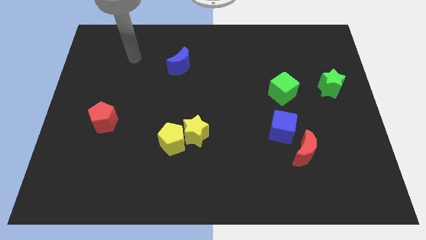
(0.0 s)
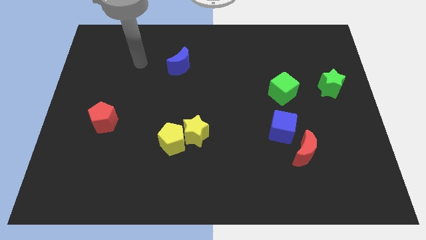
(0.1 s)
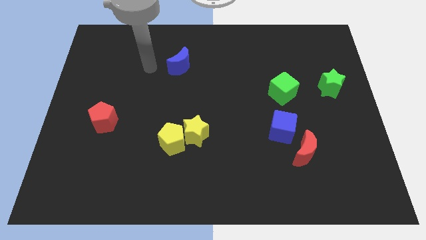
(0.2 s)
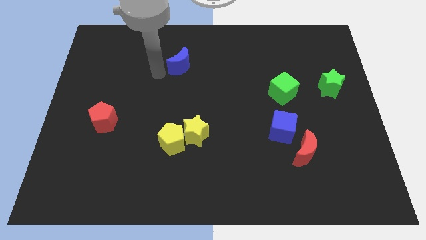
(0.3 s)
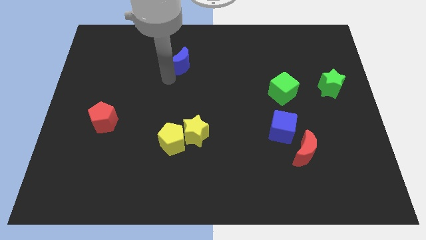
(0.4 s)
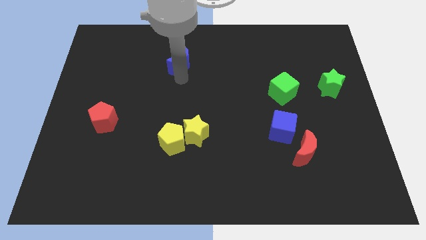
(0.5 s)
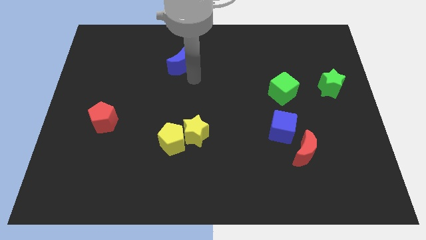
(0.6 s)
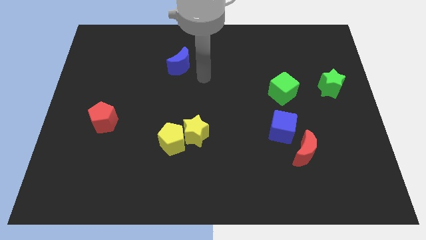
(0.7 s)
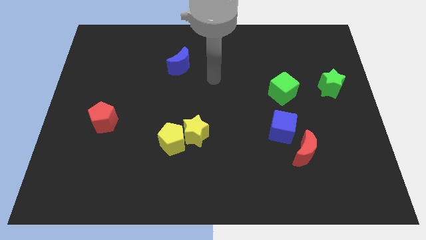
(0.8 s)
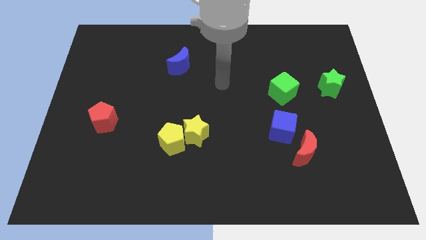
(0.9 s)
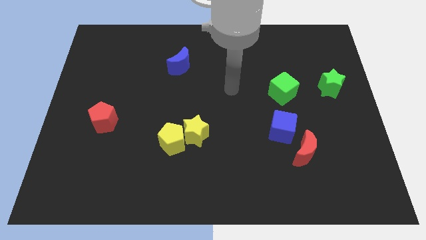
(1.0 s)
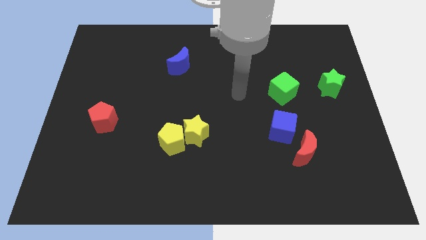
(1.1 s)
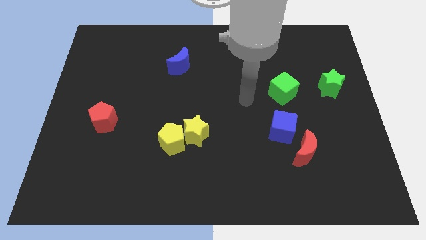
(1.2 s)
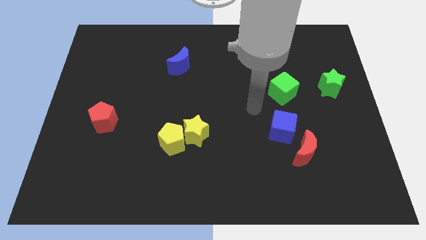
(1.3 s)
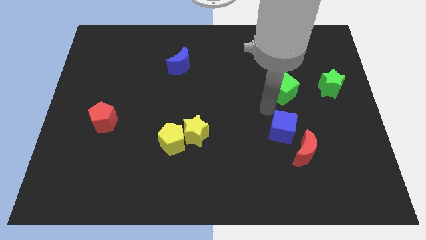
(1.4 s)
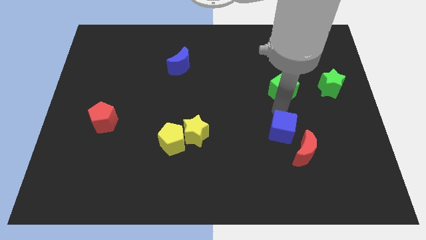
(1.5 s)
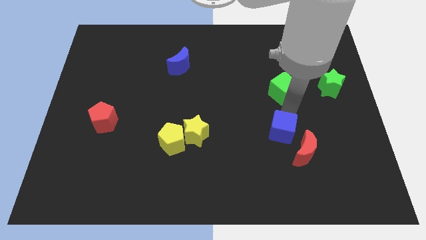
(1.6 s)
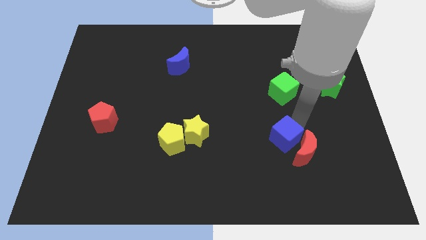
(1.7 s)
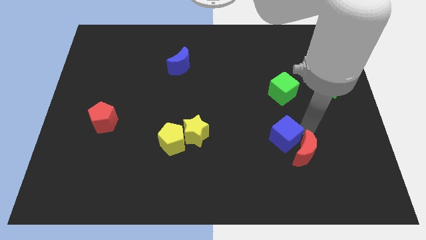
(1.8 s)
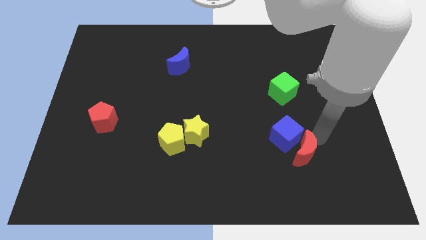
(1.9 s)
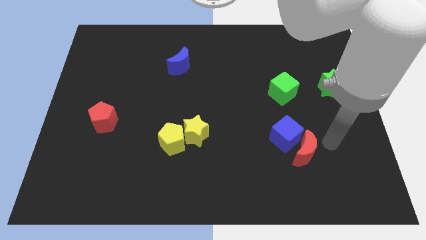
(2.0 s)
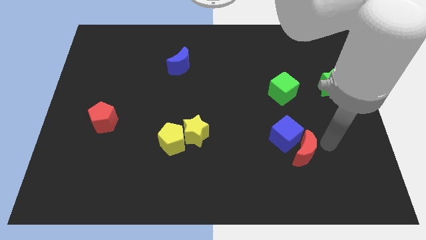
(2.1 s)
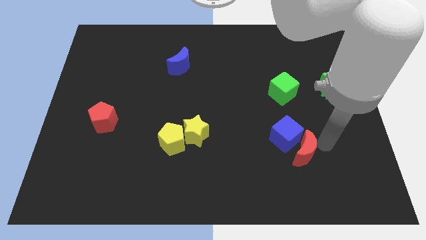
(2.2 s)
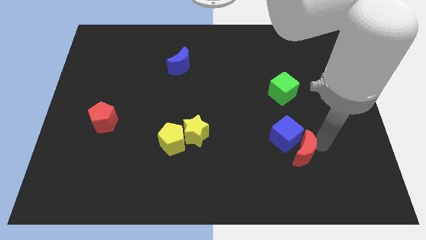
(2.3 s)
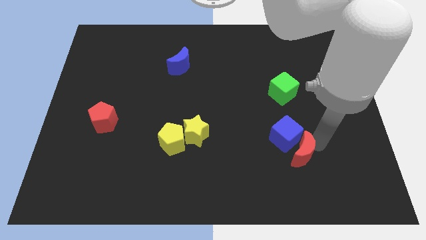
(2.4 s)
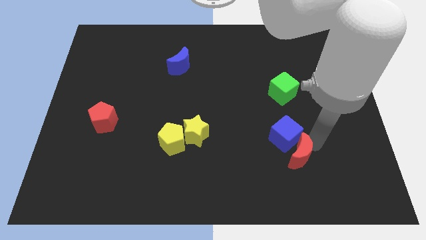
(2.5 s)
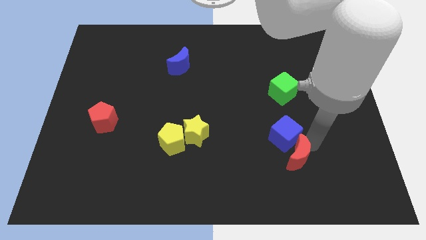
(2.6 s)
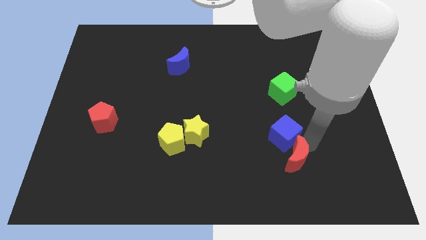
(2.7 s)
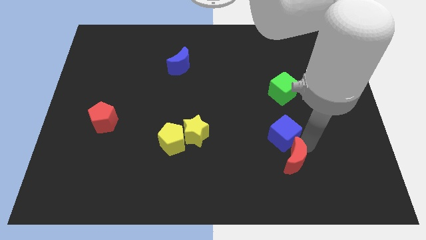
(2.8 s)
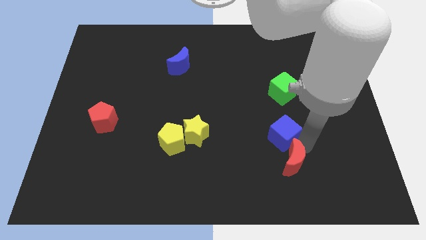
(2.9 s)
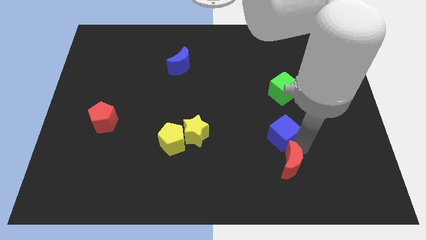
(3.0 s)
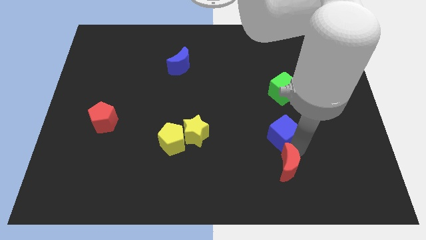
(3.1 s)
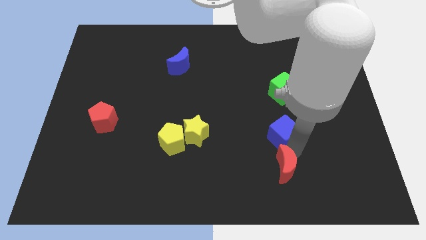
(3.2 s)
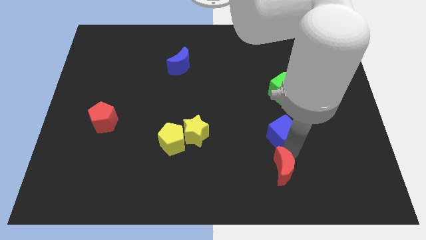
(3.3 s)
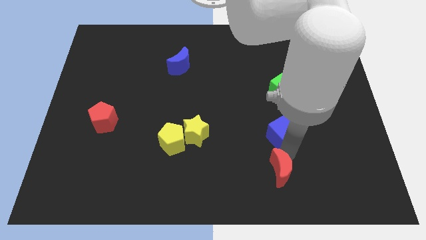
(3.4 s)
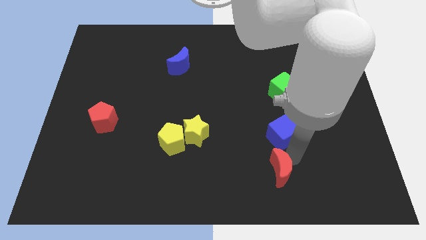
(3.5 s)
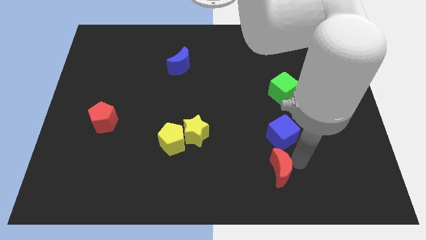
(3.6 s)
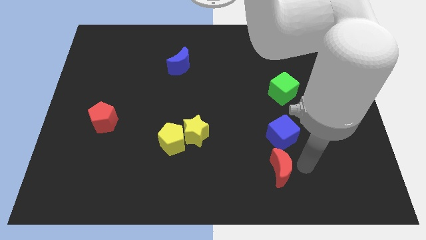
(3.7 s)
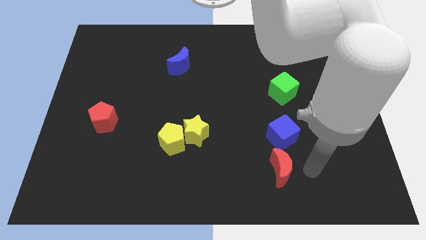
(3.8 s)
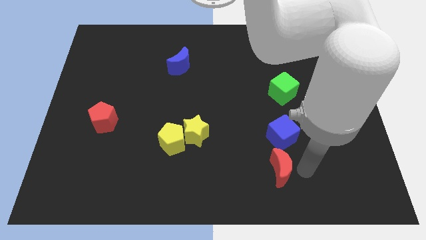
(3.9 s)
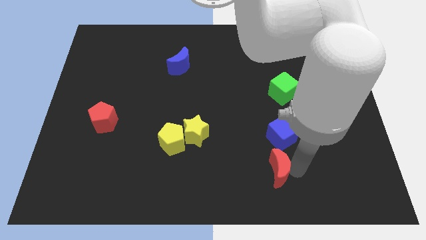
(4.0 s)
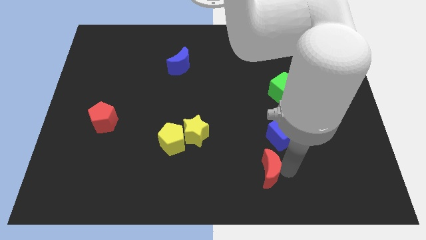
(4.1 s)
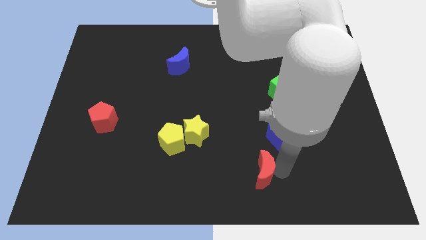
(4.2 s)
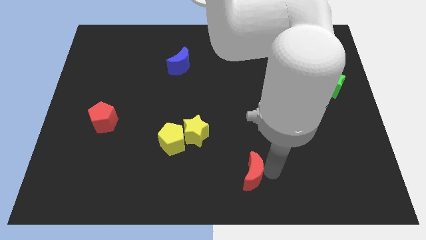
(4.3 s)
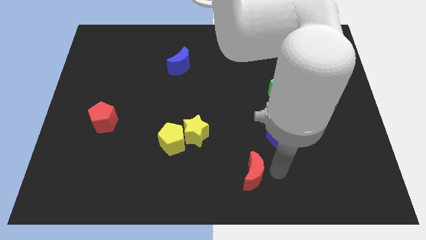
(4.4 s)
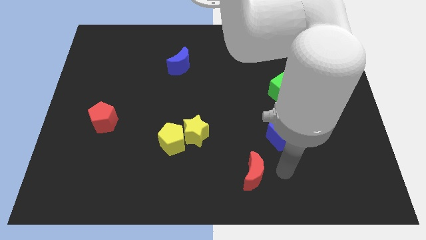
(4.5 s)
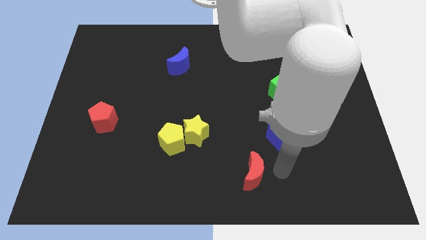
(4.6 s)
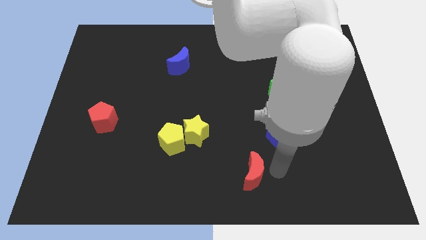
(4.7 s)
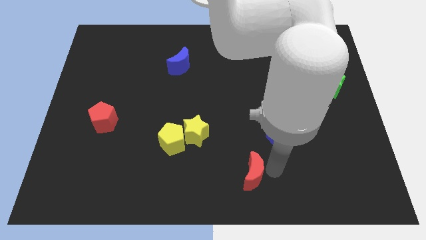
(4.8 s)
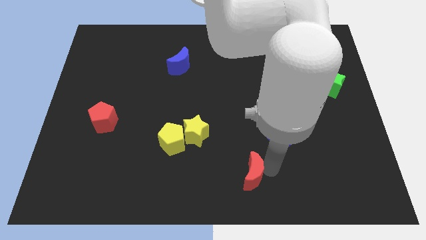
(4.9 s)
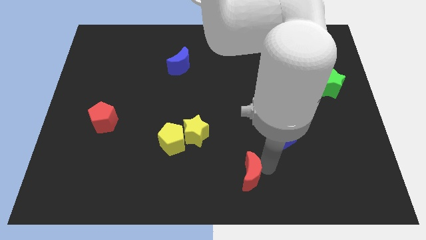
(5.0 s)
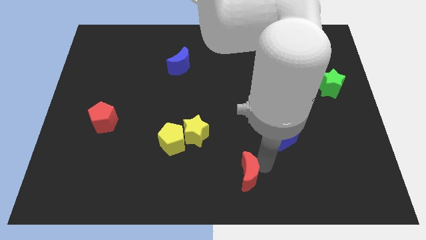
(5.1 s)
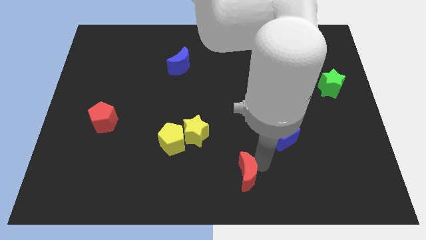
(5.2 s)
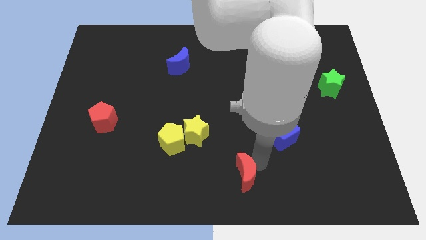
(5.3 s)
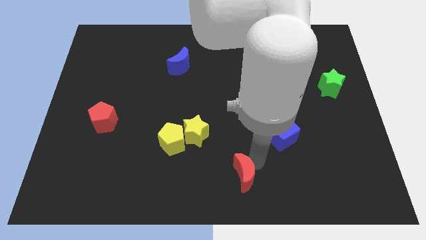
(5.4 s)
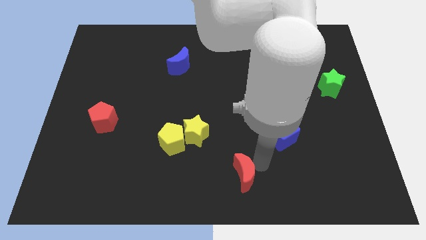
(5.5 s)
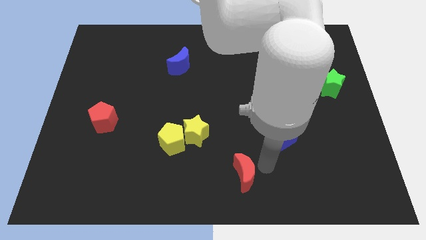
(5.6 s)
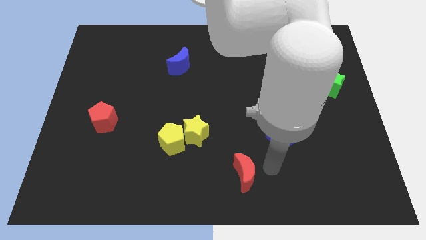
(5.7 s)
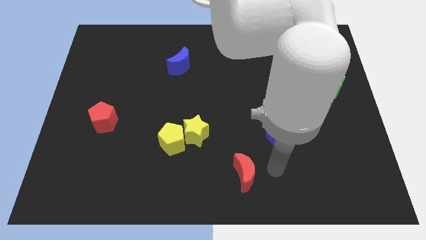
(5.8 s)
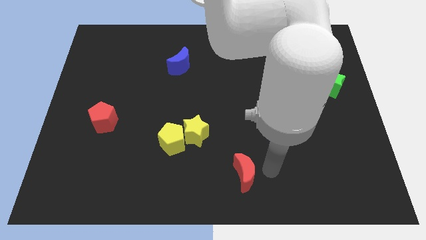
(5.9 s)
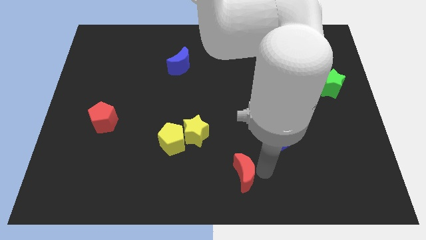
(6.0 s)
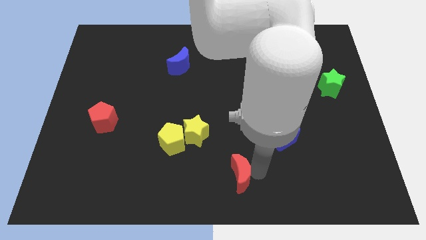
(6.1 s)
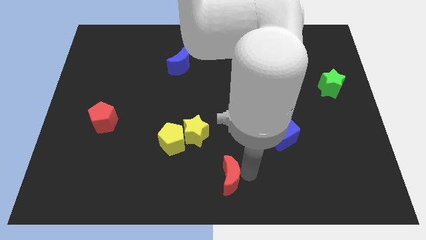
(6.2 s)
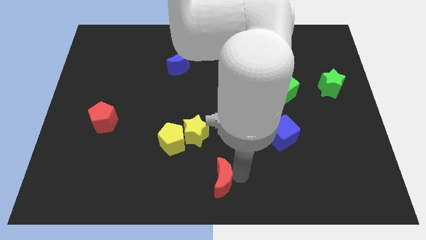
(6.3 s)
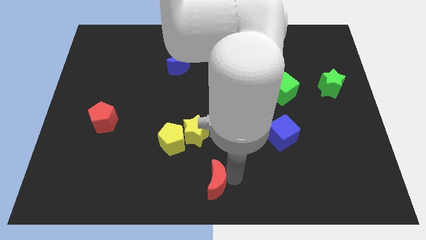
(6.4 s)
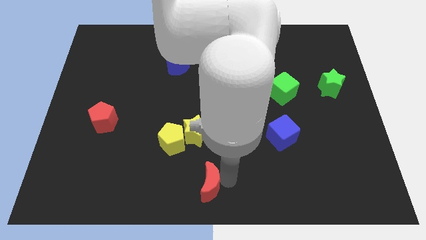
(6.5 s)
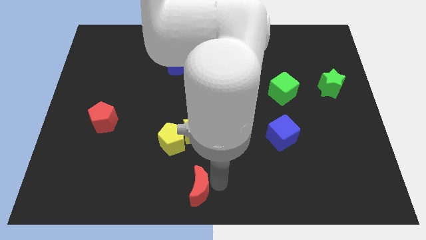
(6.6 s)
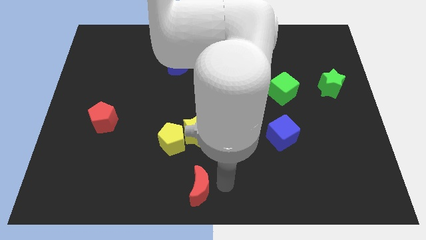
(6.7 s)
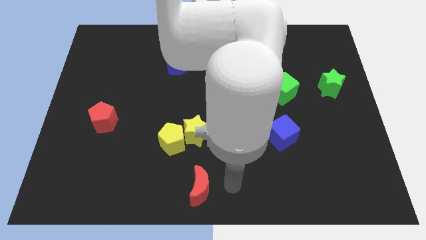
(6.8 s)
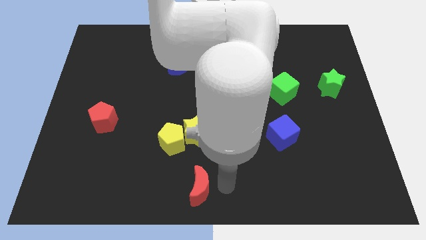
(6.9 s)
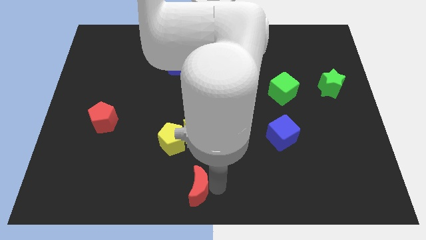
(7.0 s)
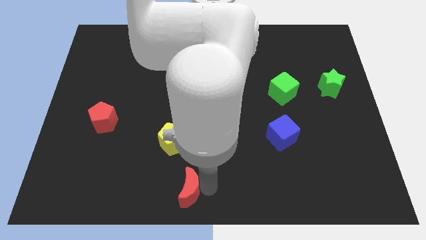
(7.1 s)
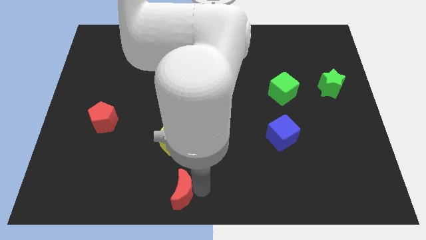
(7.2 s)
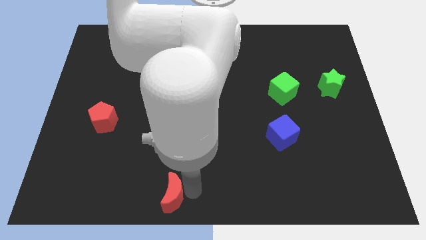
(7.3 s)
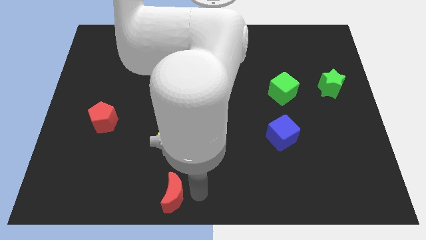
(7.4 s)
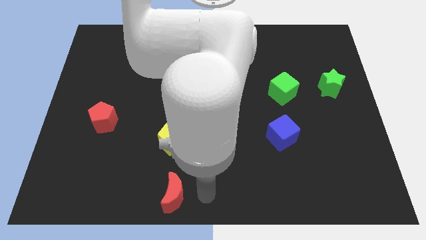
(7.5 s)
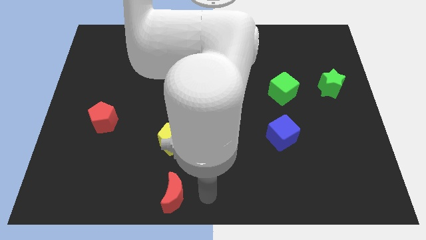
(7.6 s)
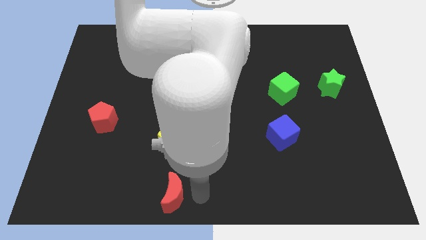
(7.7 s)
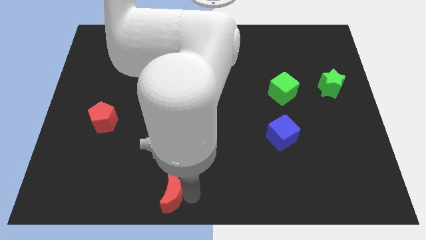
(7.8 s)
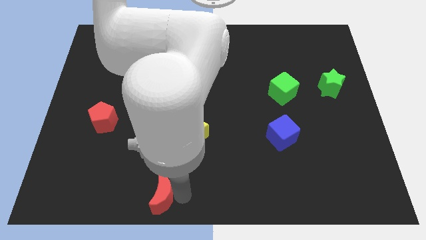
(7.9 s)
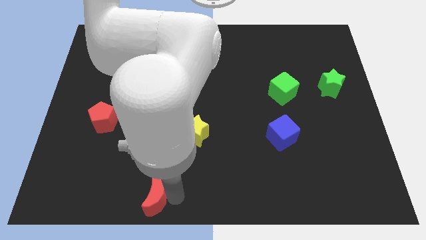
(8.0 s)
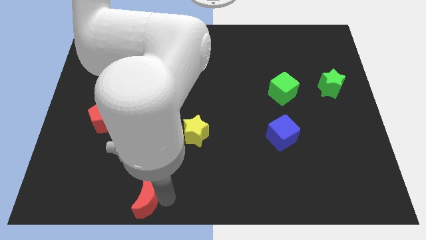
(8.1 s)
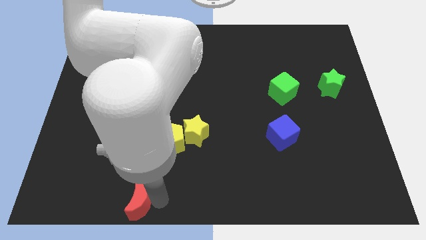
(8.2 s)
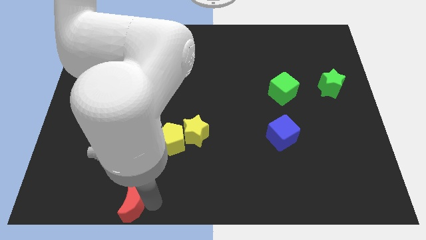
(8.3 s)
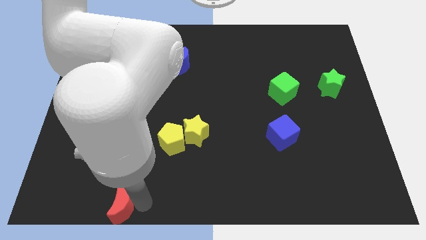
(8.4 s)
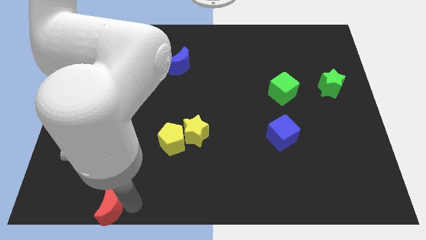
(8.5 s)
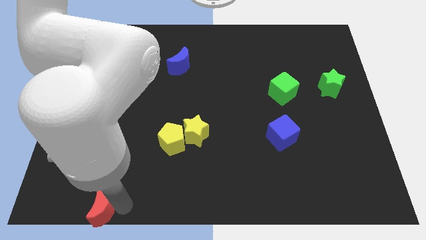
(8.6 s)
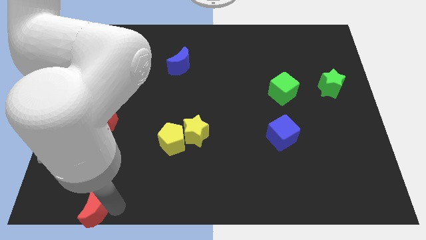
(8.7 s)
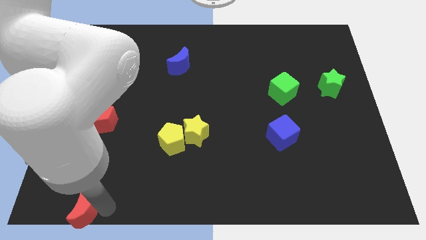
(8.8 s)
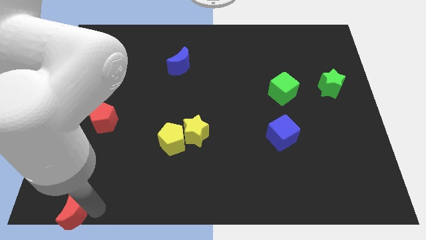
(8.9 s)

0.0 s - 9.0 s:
push the red moon to the lower left corner
